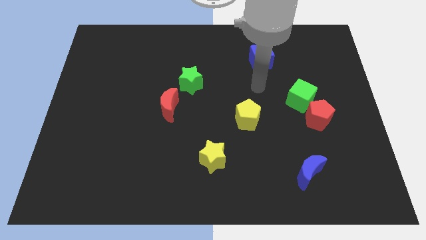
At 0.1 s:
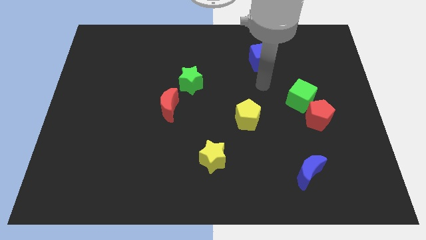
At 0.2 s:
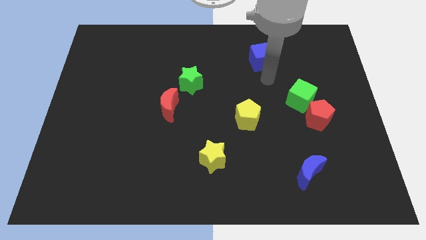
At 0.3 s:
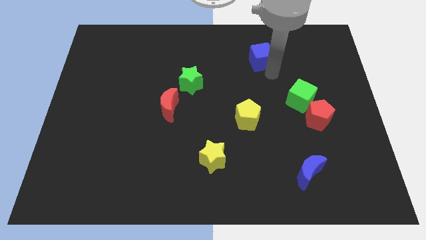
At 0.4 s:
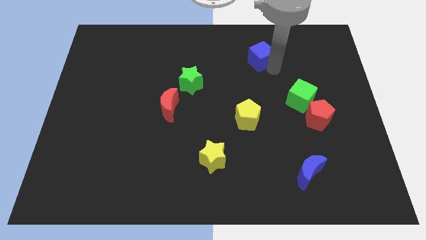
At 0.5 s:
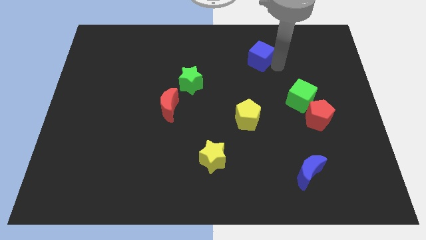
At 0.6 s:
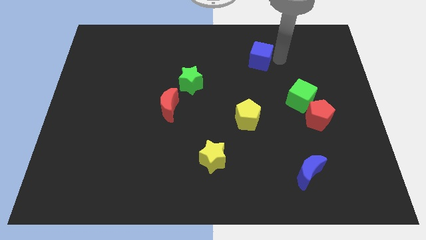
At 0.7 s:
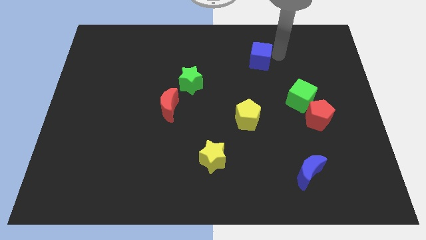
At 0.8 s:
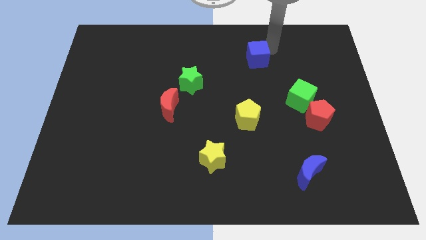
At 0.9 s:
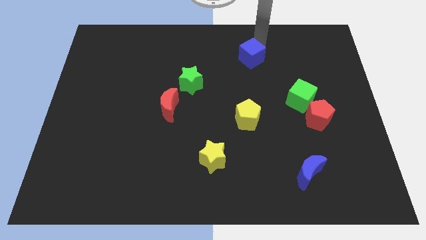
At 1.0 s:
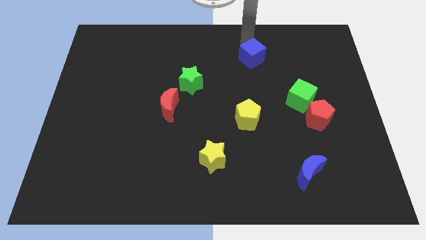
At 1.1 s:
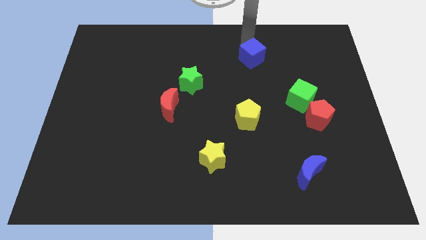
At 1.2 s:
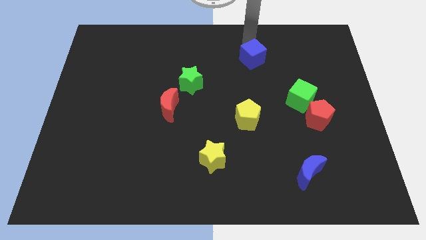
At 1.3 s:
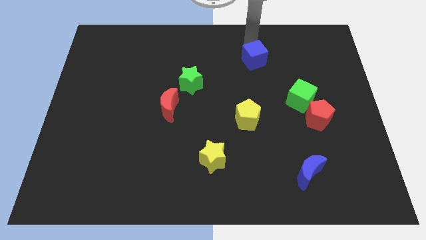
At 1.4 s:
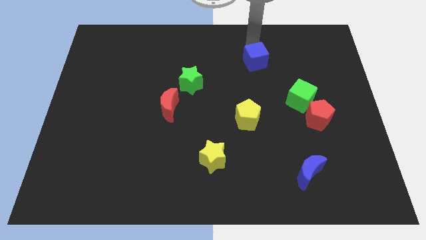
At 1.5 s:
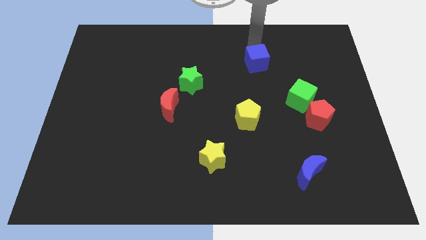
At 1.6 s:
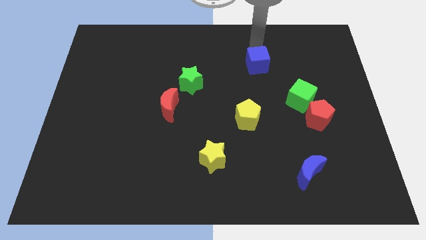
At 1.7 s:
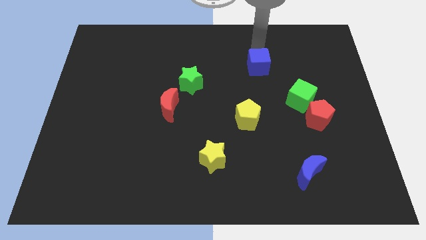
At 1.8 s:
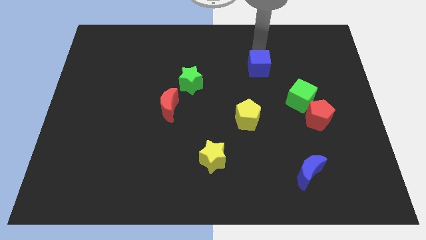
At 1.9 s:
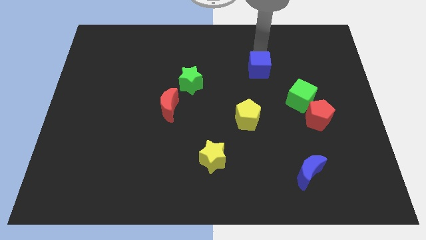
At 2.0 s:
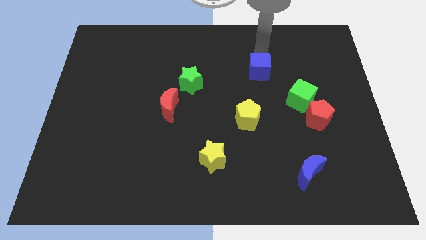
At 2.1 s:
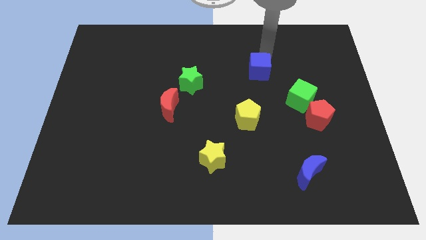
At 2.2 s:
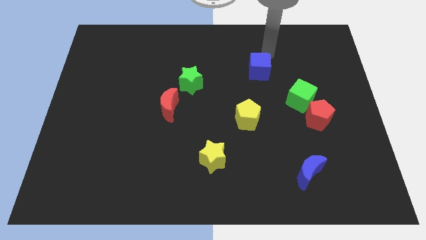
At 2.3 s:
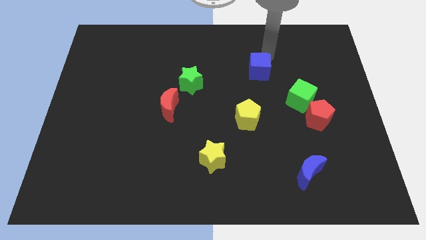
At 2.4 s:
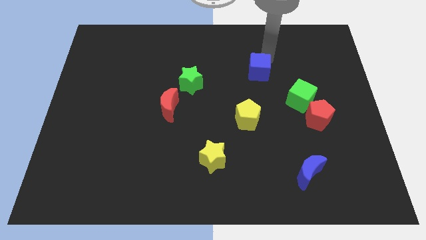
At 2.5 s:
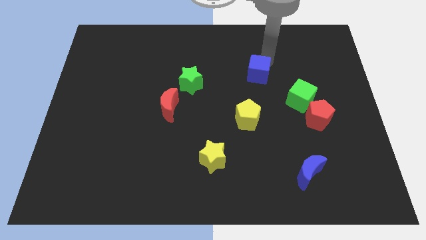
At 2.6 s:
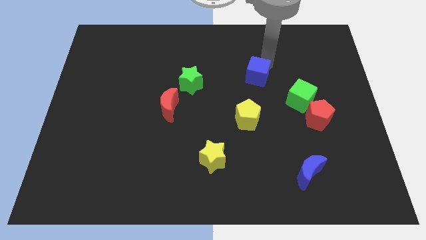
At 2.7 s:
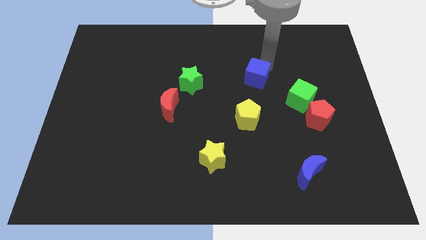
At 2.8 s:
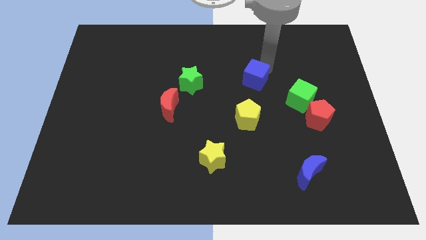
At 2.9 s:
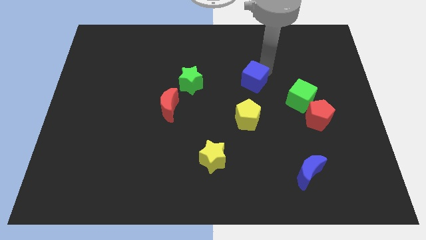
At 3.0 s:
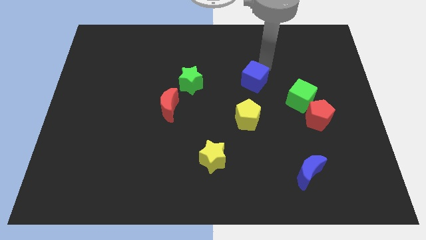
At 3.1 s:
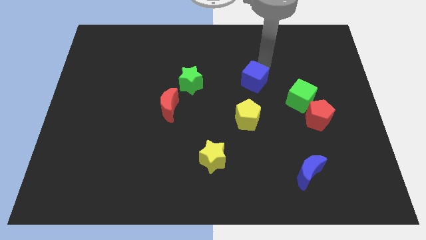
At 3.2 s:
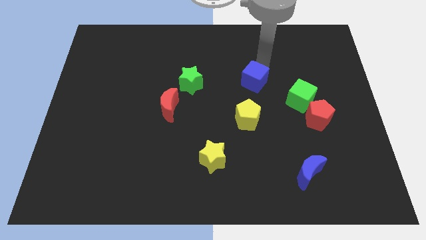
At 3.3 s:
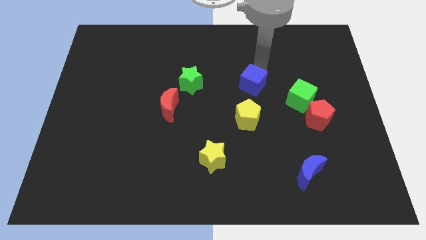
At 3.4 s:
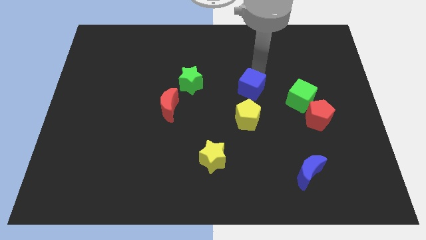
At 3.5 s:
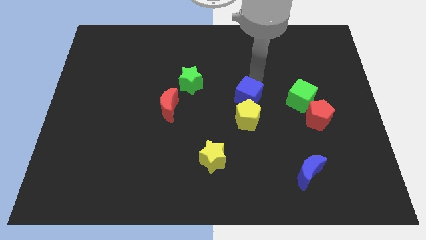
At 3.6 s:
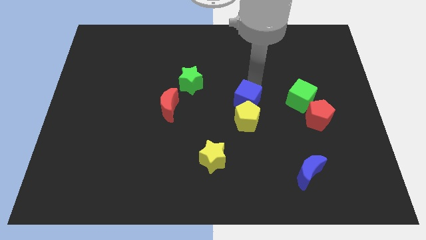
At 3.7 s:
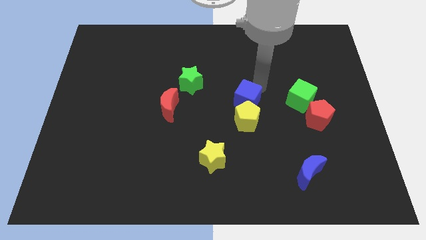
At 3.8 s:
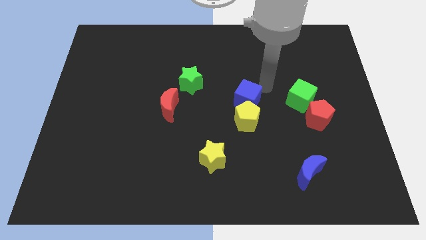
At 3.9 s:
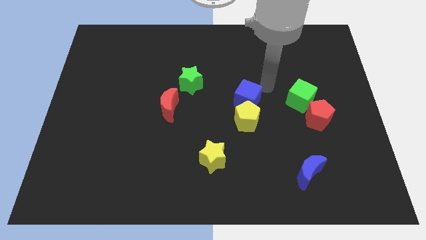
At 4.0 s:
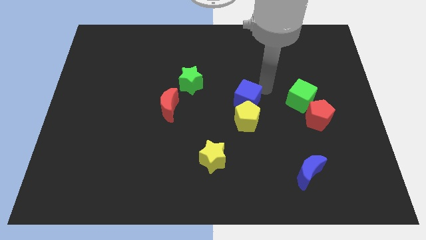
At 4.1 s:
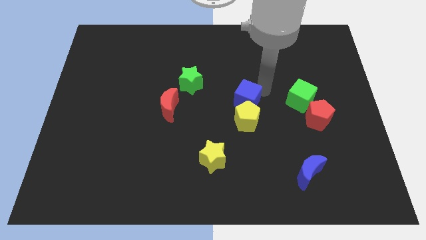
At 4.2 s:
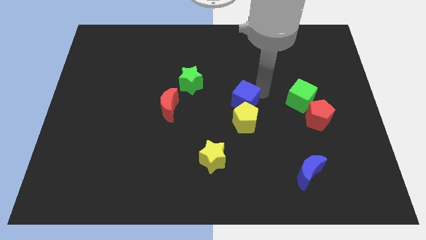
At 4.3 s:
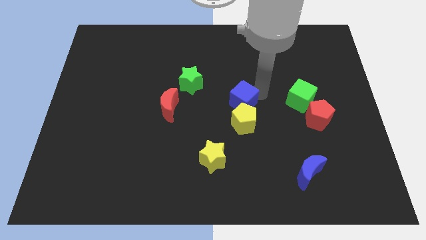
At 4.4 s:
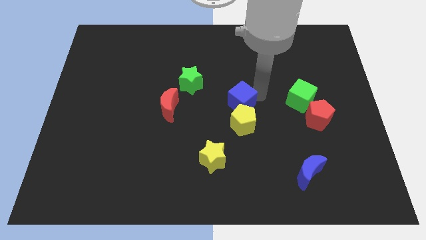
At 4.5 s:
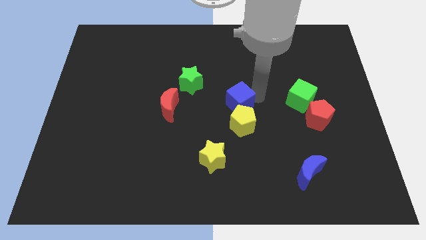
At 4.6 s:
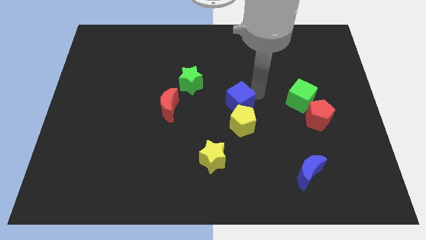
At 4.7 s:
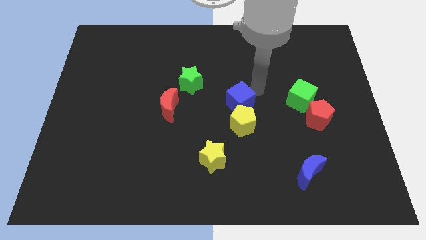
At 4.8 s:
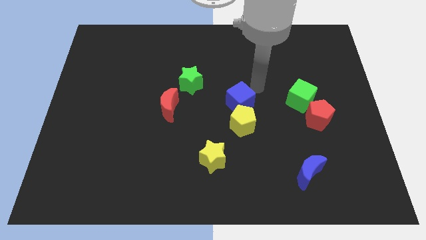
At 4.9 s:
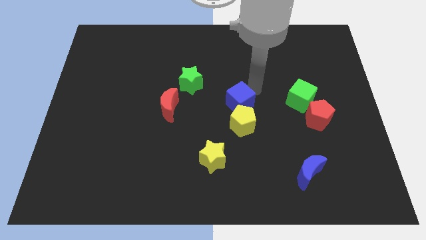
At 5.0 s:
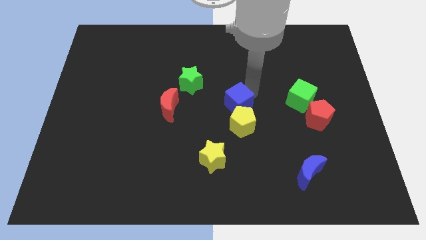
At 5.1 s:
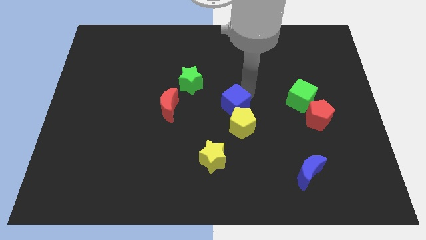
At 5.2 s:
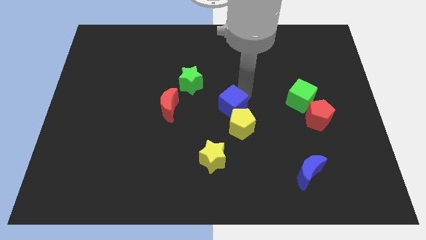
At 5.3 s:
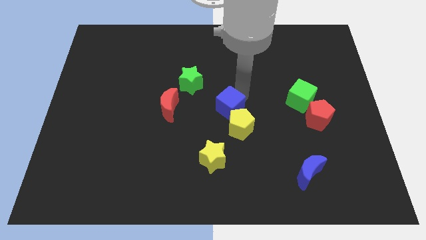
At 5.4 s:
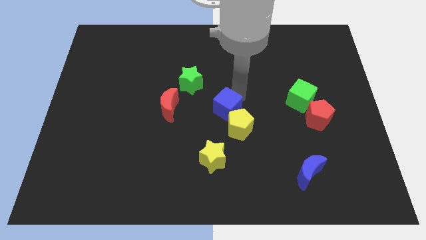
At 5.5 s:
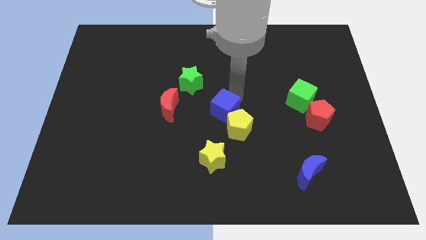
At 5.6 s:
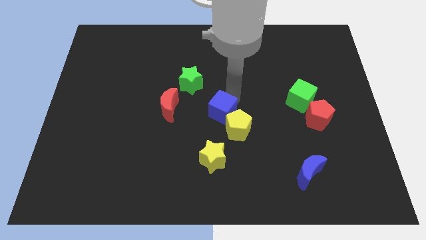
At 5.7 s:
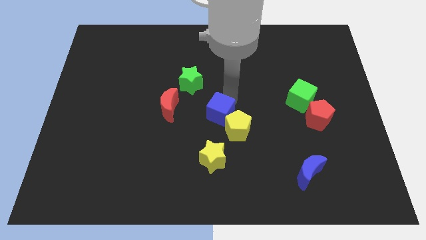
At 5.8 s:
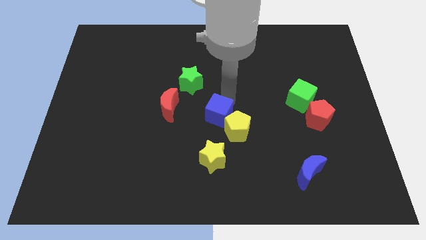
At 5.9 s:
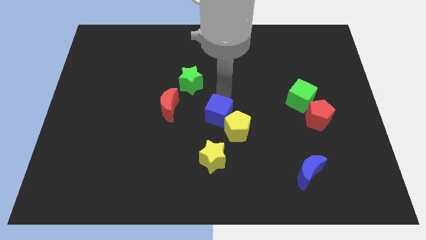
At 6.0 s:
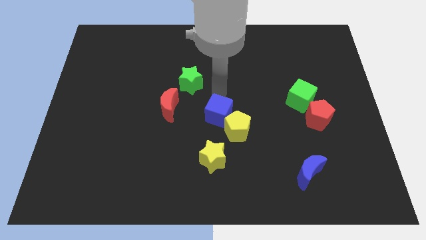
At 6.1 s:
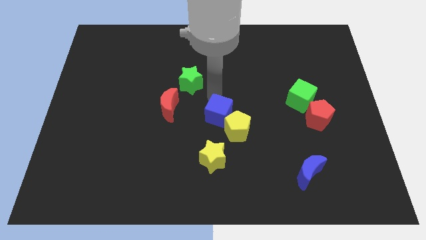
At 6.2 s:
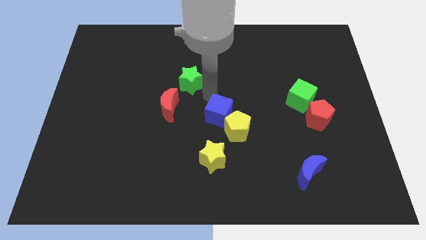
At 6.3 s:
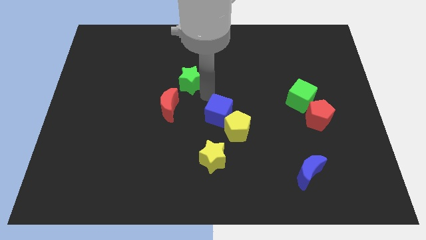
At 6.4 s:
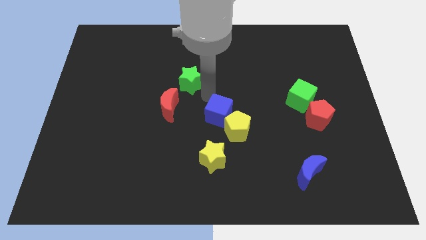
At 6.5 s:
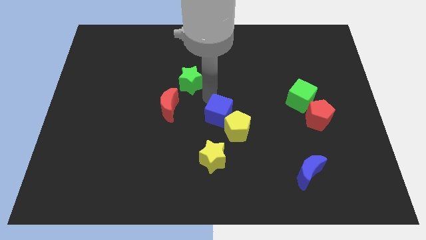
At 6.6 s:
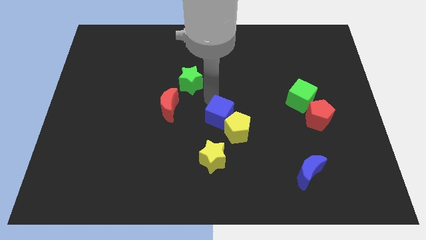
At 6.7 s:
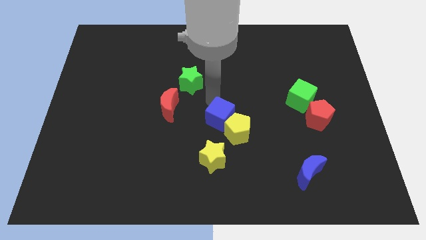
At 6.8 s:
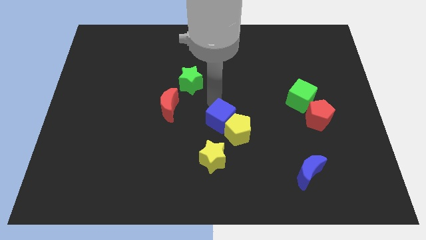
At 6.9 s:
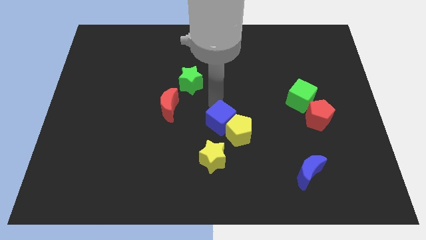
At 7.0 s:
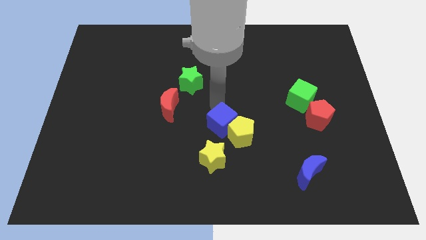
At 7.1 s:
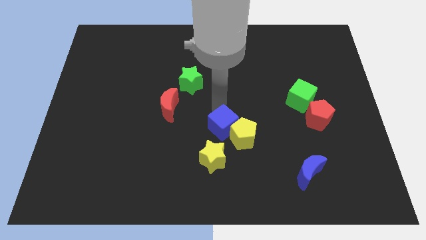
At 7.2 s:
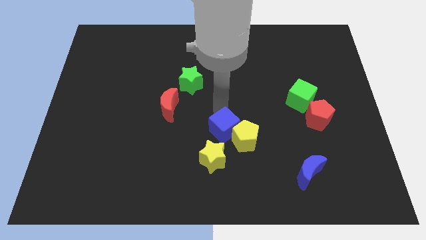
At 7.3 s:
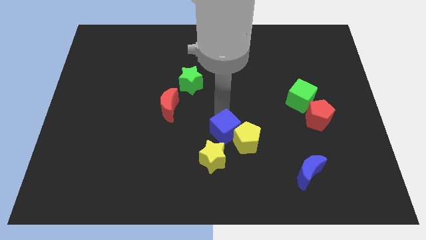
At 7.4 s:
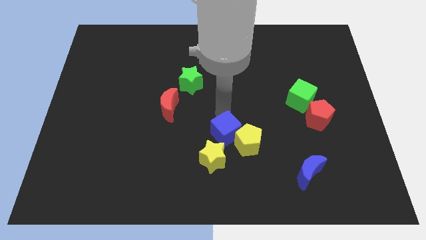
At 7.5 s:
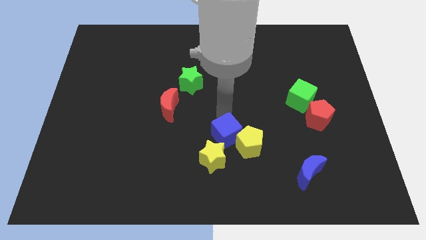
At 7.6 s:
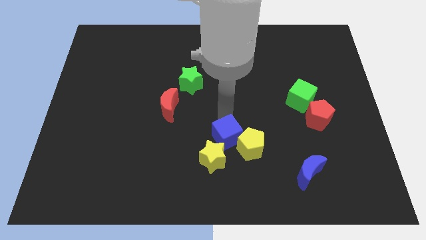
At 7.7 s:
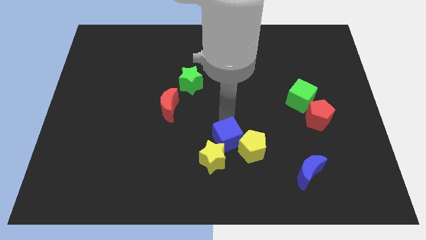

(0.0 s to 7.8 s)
move the blue cube close to the yellow star
